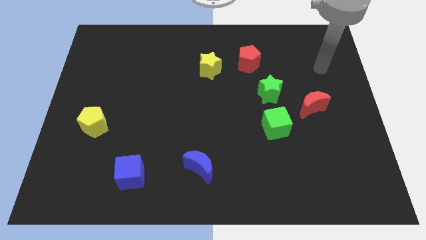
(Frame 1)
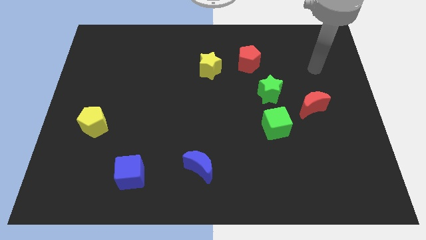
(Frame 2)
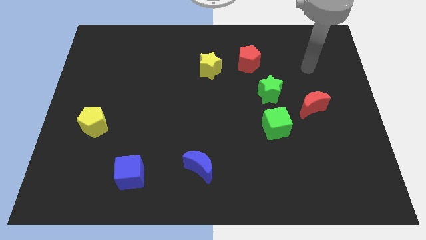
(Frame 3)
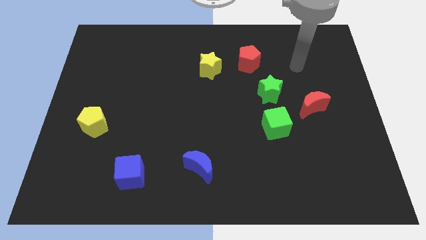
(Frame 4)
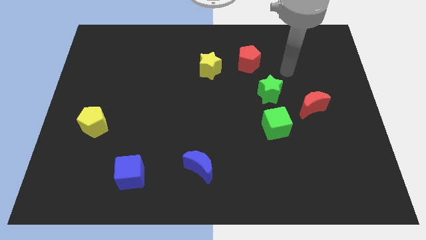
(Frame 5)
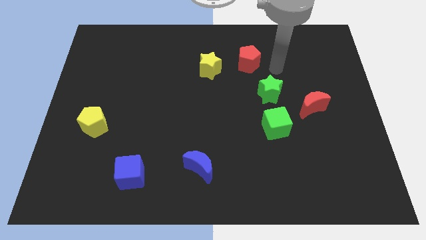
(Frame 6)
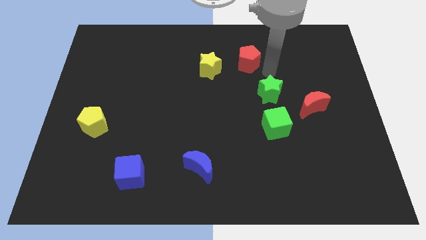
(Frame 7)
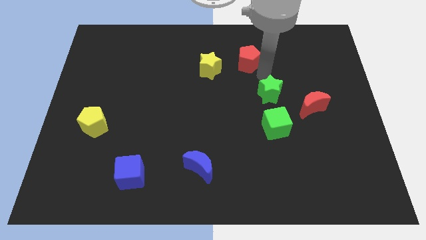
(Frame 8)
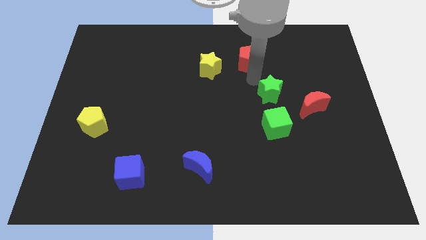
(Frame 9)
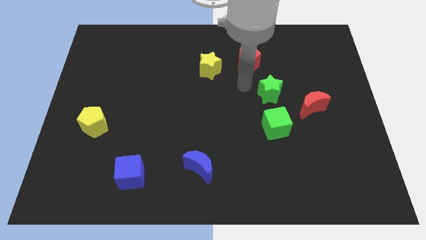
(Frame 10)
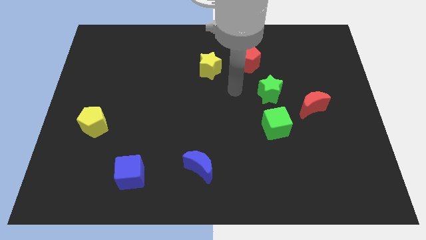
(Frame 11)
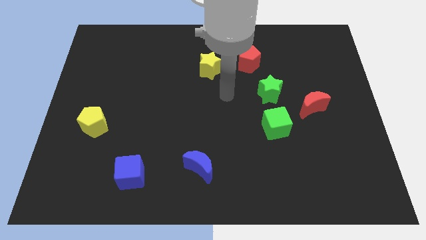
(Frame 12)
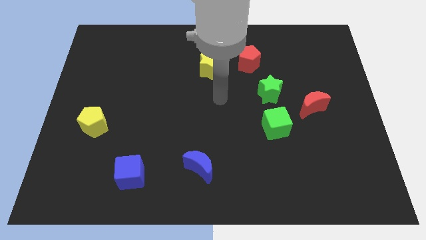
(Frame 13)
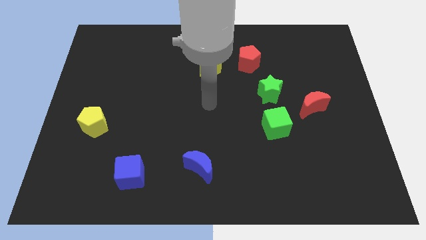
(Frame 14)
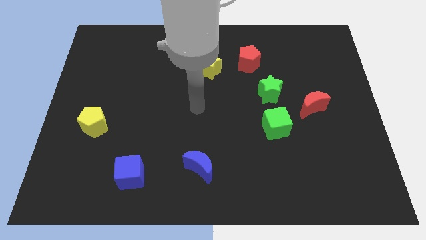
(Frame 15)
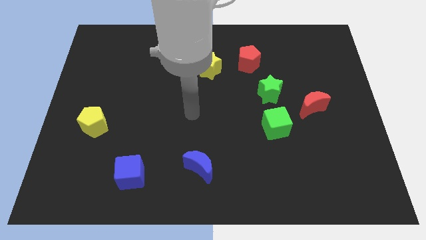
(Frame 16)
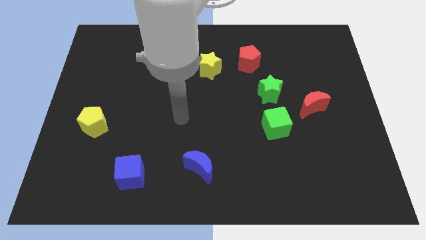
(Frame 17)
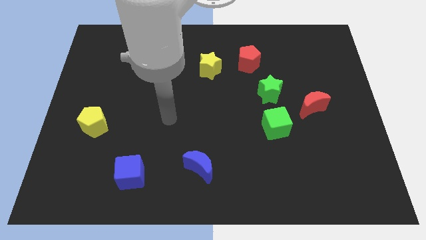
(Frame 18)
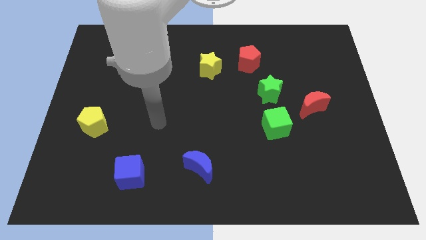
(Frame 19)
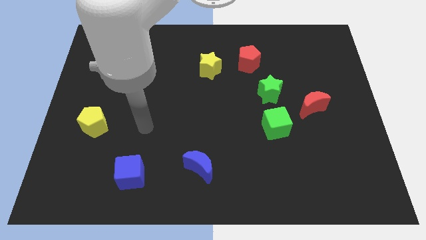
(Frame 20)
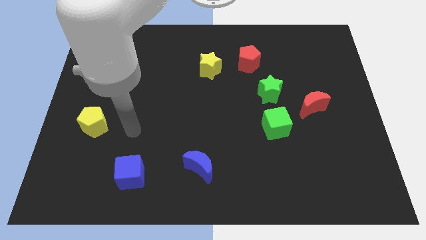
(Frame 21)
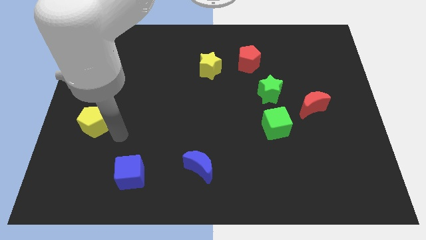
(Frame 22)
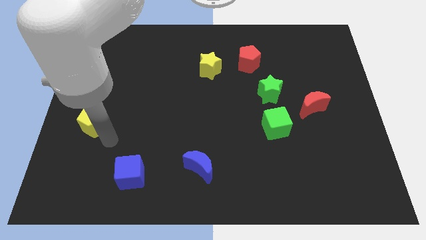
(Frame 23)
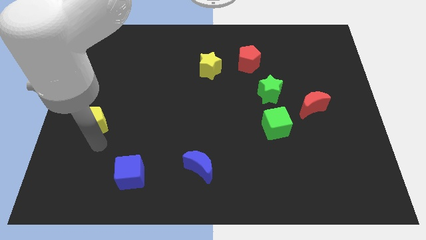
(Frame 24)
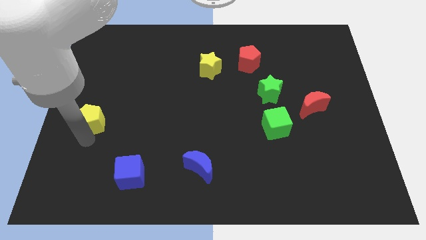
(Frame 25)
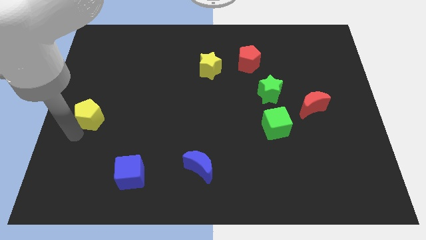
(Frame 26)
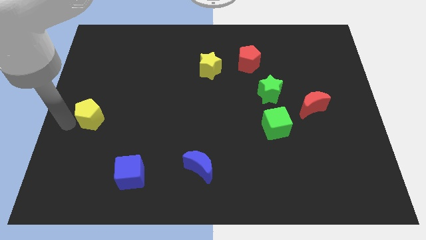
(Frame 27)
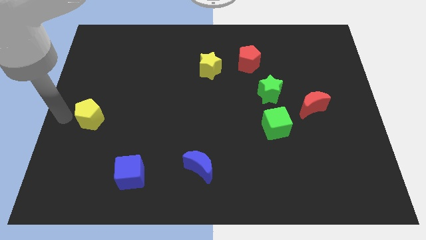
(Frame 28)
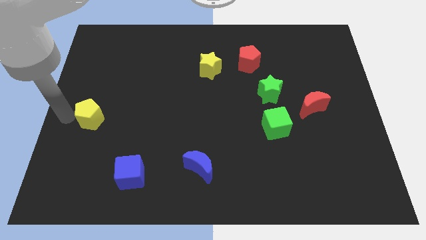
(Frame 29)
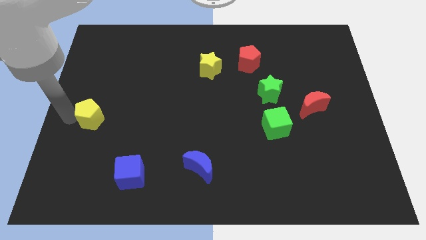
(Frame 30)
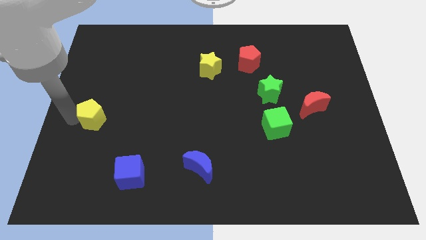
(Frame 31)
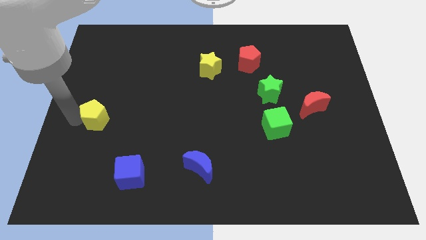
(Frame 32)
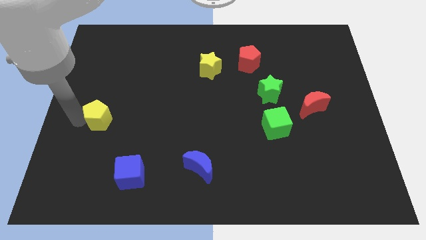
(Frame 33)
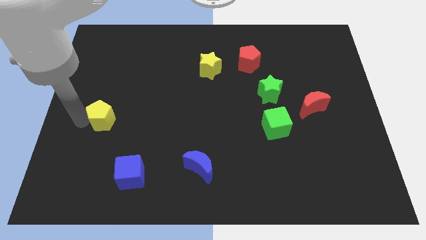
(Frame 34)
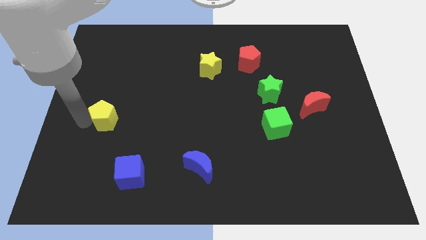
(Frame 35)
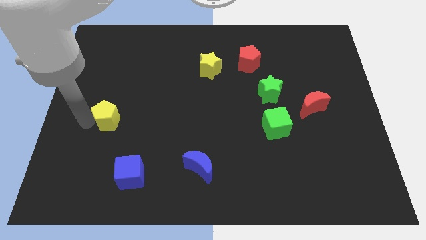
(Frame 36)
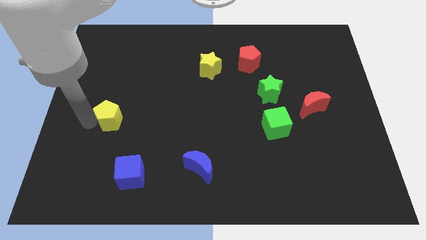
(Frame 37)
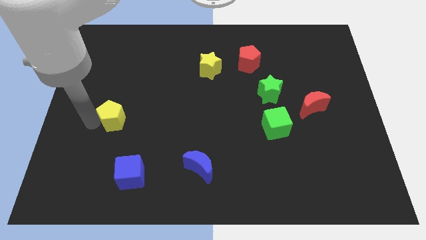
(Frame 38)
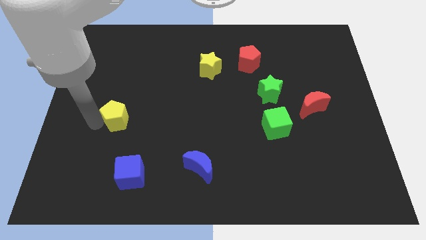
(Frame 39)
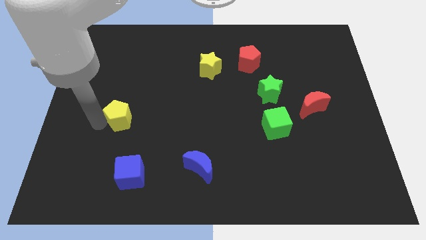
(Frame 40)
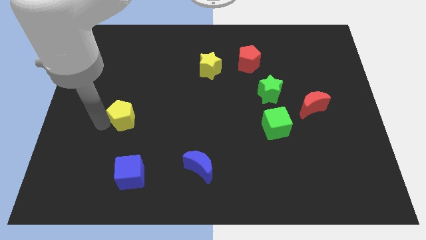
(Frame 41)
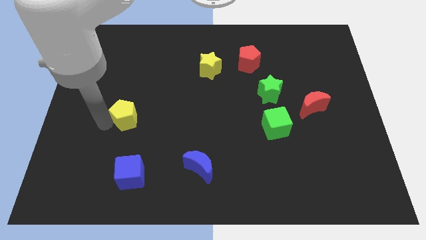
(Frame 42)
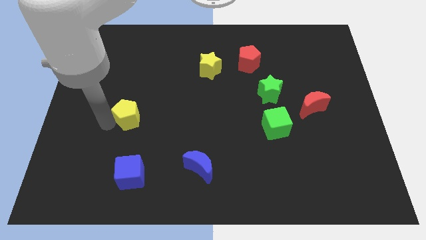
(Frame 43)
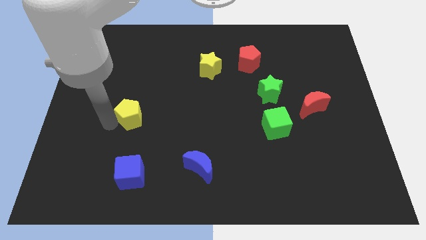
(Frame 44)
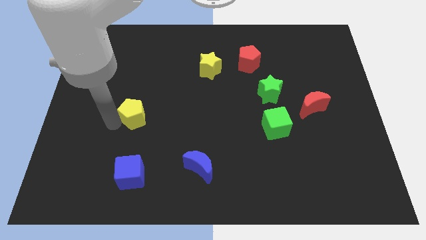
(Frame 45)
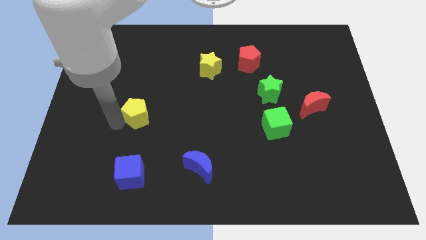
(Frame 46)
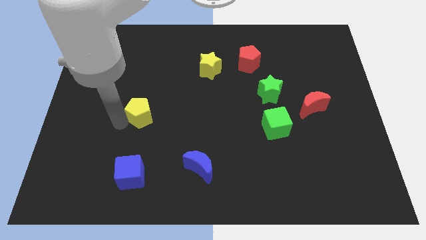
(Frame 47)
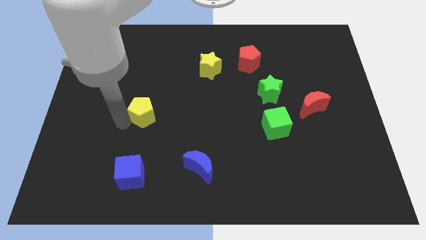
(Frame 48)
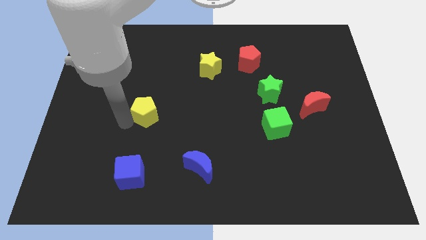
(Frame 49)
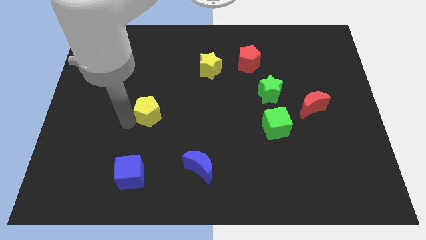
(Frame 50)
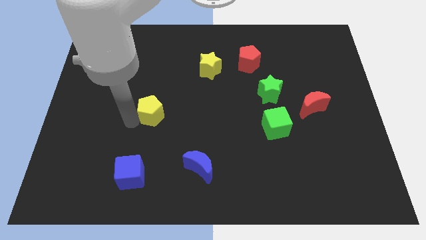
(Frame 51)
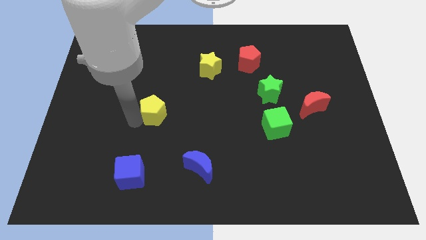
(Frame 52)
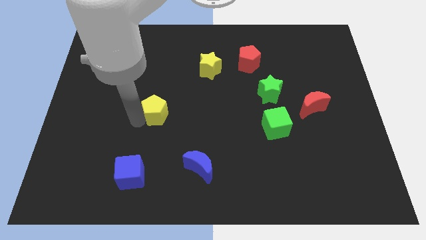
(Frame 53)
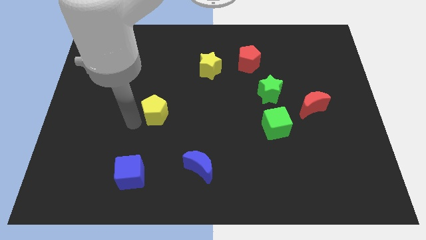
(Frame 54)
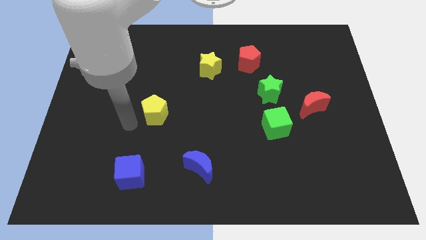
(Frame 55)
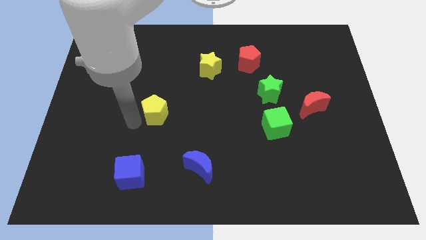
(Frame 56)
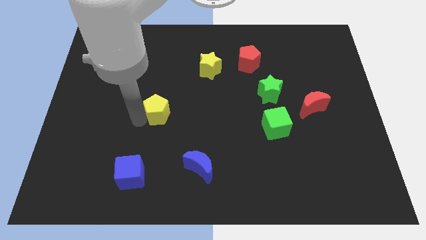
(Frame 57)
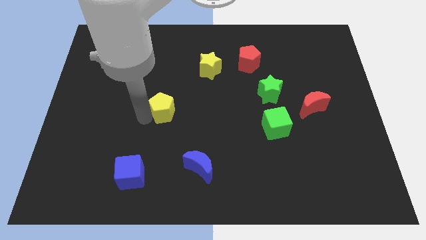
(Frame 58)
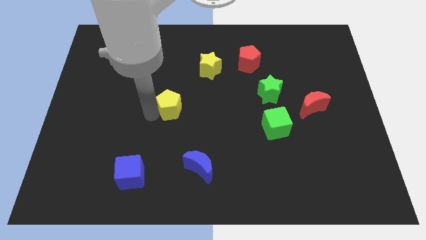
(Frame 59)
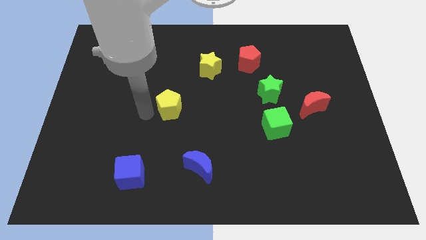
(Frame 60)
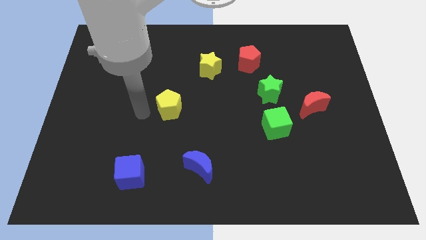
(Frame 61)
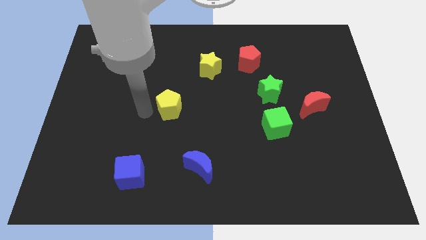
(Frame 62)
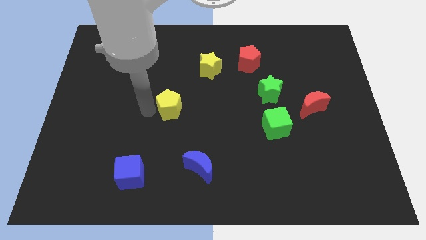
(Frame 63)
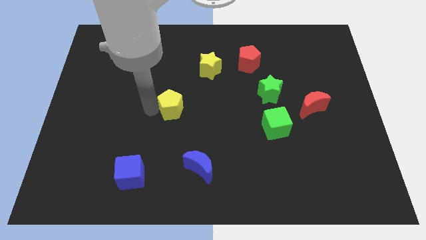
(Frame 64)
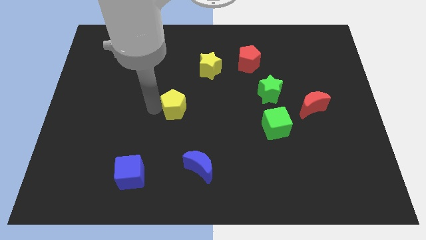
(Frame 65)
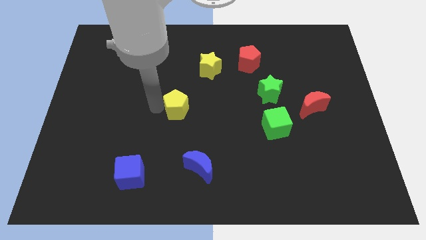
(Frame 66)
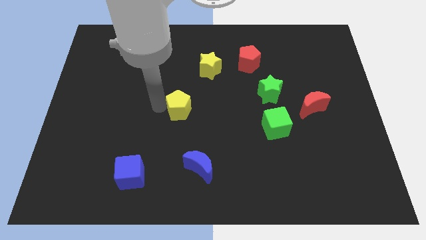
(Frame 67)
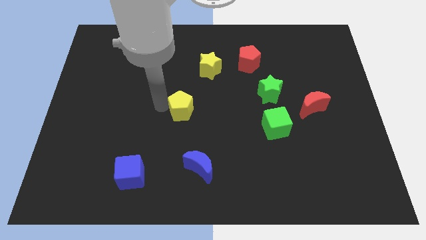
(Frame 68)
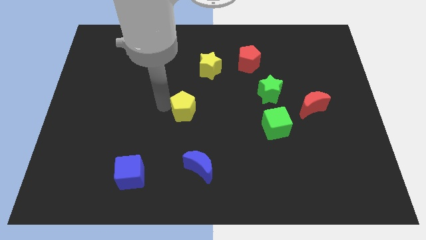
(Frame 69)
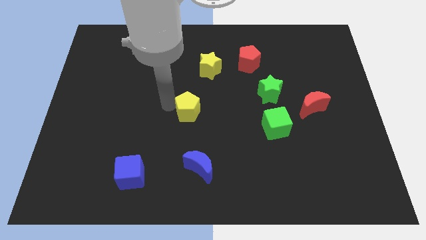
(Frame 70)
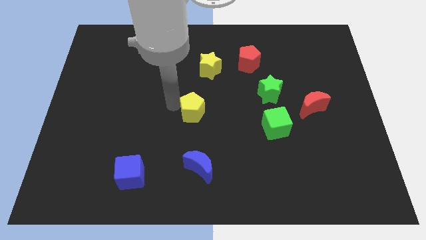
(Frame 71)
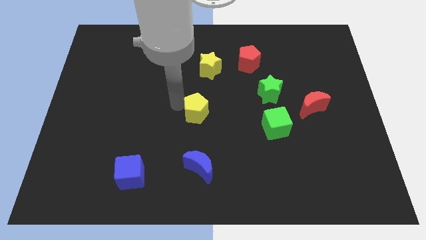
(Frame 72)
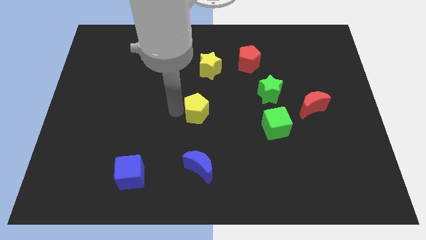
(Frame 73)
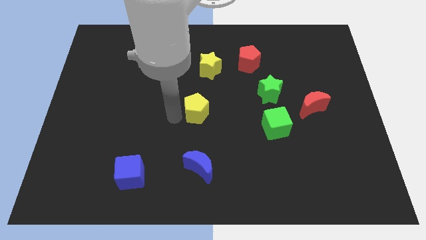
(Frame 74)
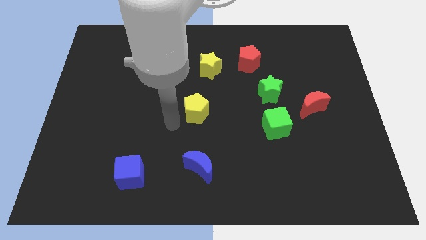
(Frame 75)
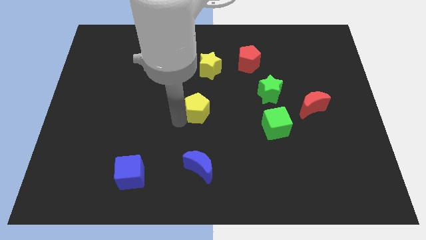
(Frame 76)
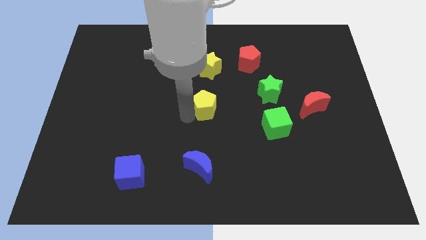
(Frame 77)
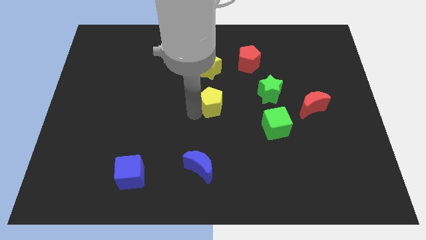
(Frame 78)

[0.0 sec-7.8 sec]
put the yellow pentagon to the left side of the green star
